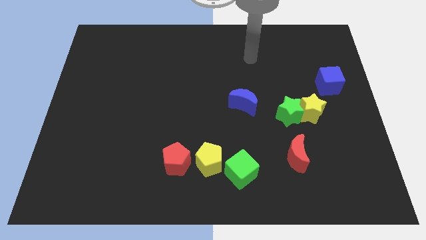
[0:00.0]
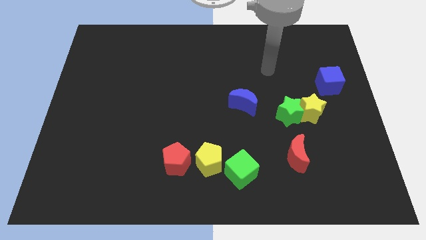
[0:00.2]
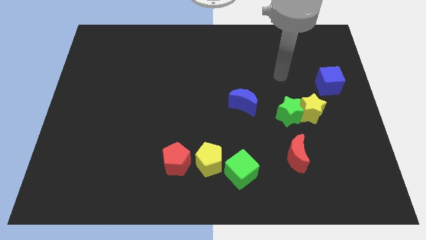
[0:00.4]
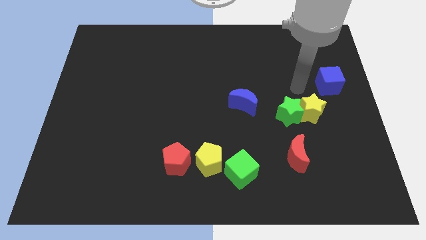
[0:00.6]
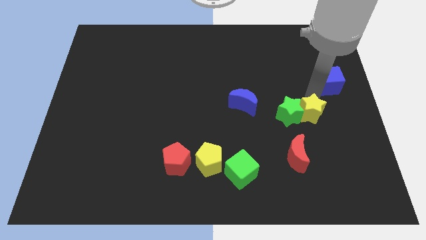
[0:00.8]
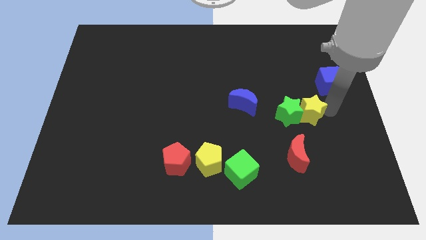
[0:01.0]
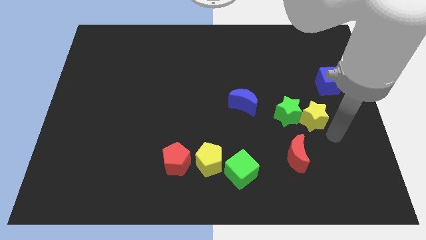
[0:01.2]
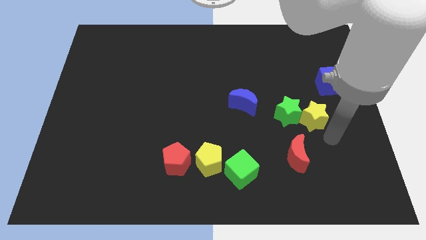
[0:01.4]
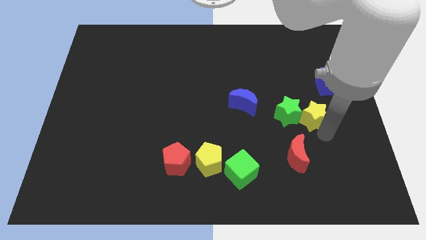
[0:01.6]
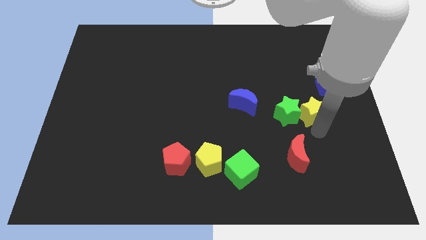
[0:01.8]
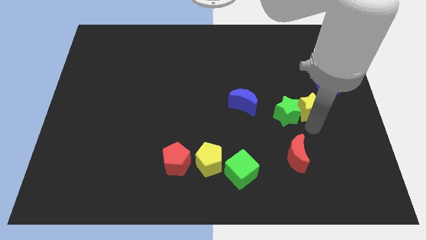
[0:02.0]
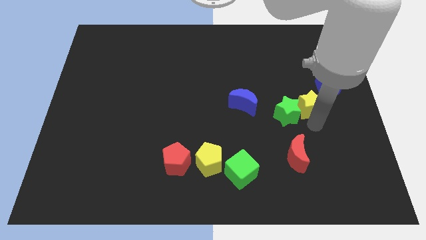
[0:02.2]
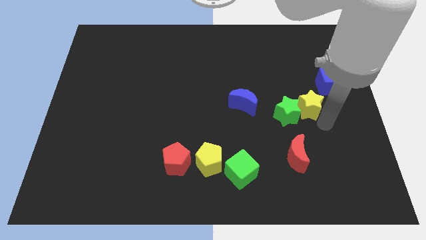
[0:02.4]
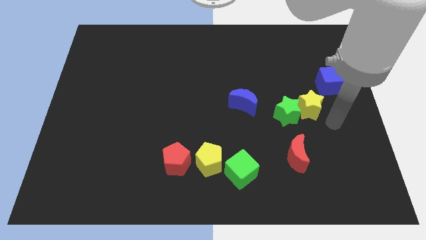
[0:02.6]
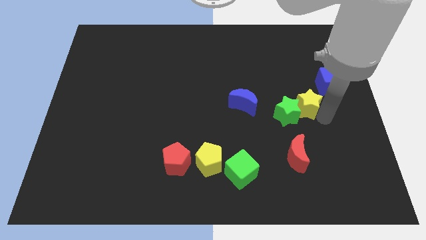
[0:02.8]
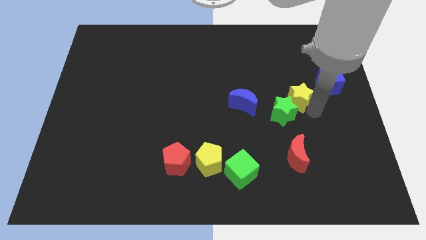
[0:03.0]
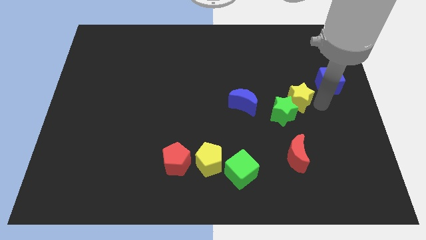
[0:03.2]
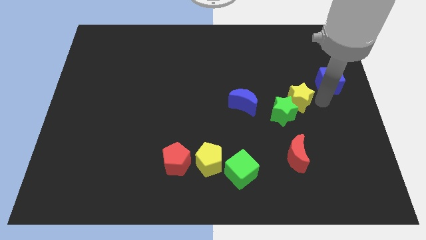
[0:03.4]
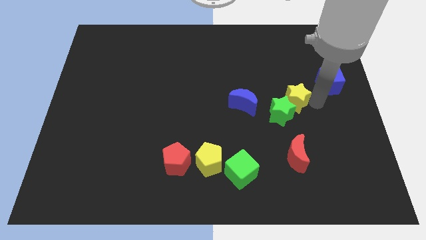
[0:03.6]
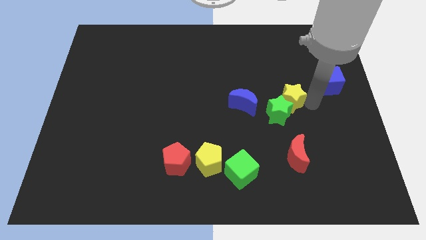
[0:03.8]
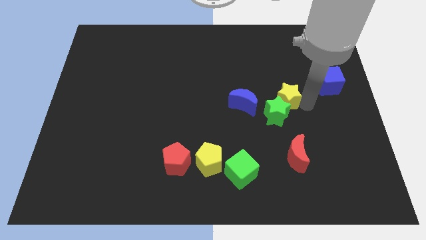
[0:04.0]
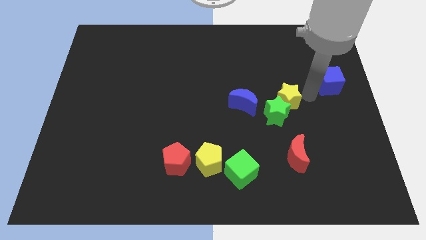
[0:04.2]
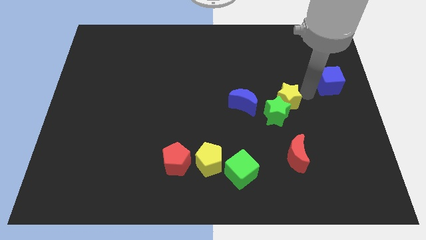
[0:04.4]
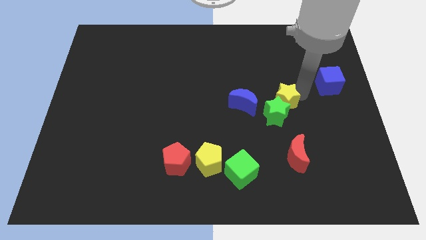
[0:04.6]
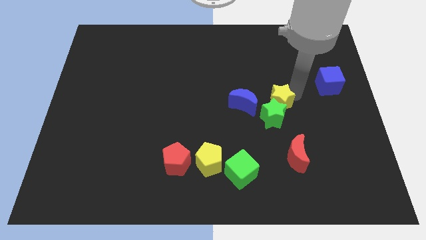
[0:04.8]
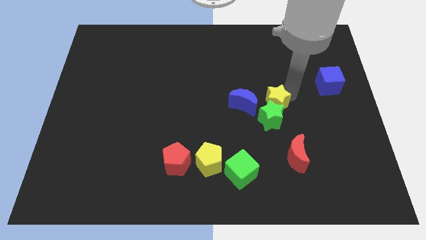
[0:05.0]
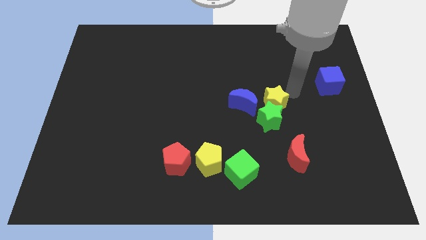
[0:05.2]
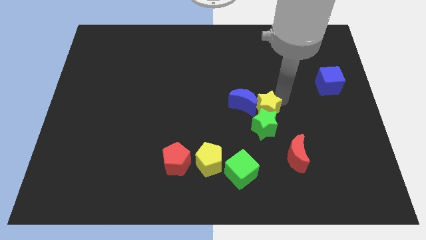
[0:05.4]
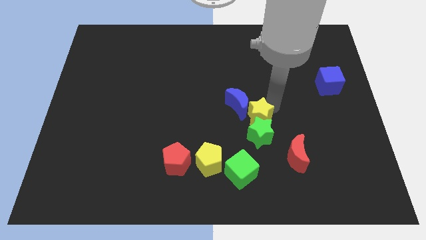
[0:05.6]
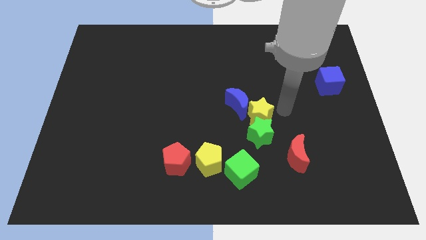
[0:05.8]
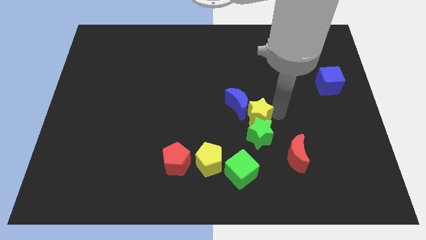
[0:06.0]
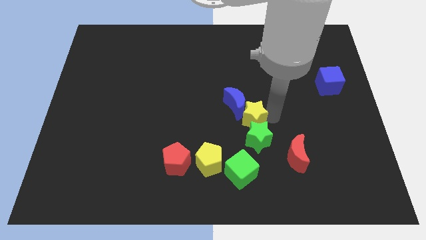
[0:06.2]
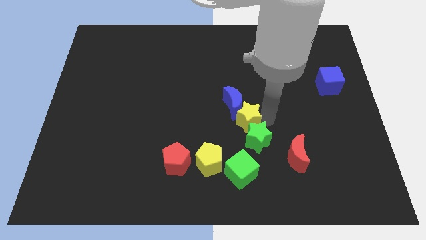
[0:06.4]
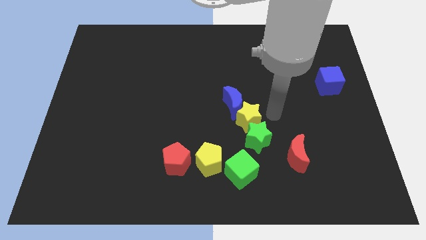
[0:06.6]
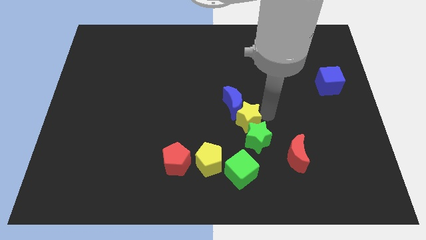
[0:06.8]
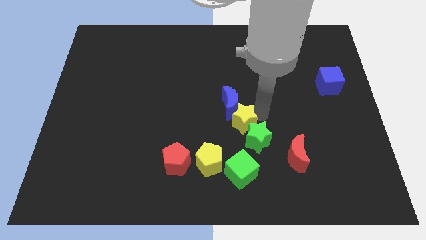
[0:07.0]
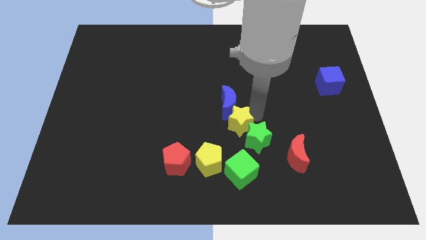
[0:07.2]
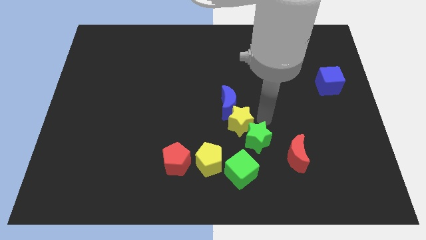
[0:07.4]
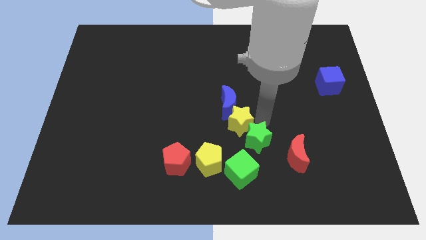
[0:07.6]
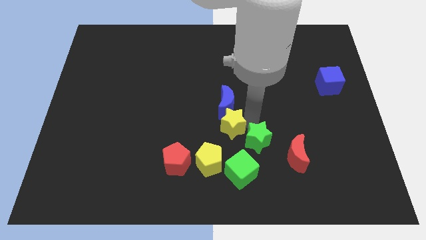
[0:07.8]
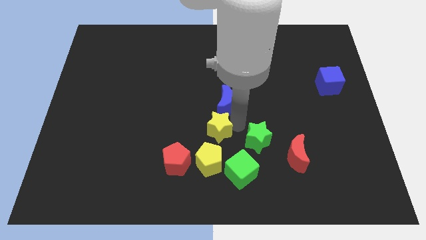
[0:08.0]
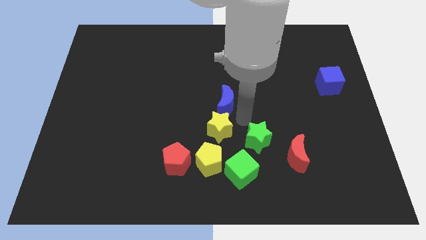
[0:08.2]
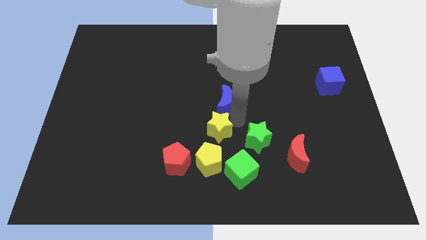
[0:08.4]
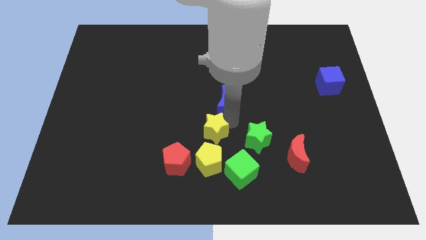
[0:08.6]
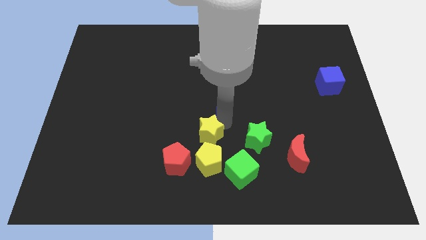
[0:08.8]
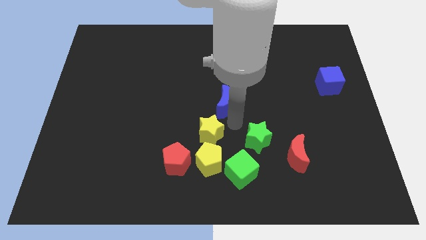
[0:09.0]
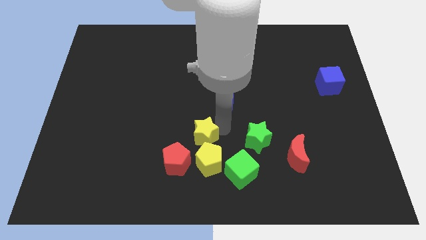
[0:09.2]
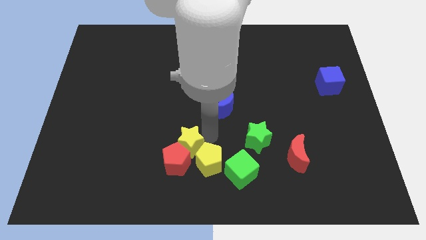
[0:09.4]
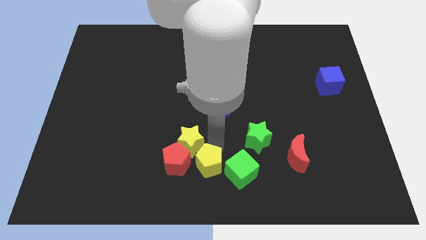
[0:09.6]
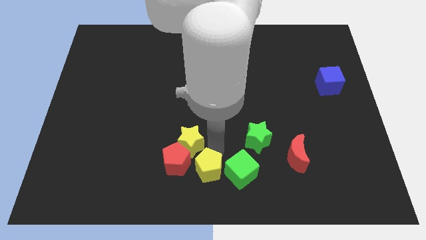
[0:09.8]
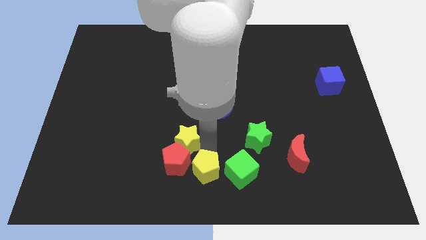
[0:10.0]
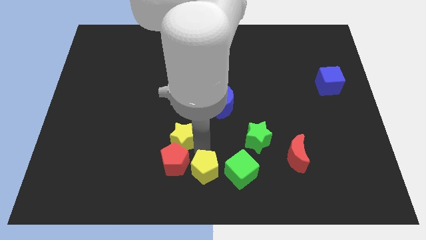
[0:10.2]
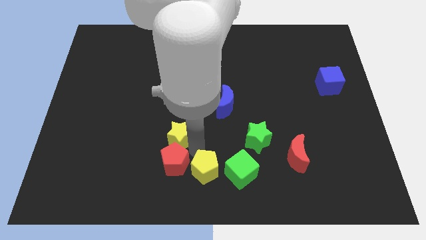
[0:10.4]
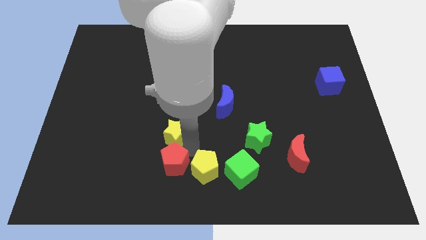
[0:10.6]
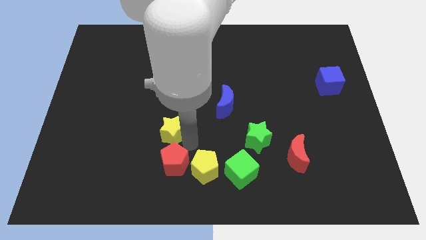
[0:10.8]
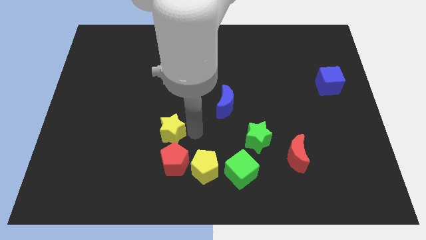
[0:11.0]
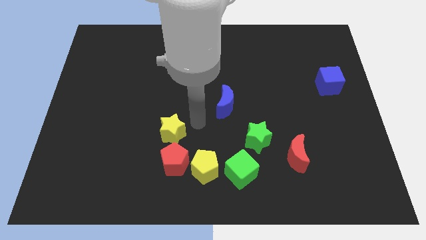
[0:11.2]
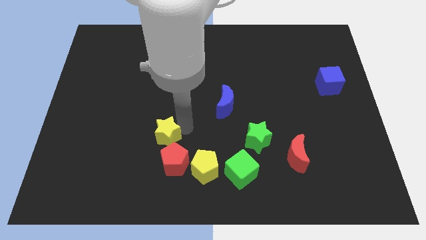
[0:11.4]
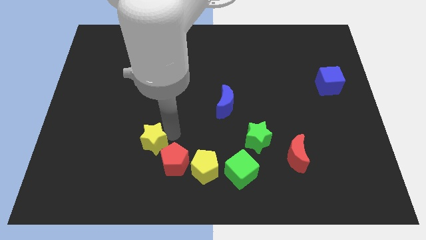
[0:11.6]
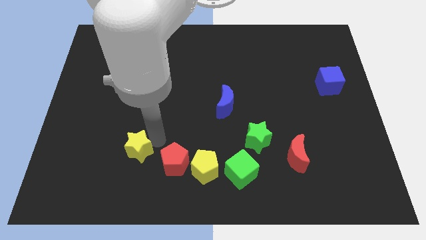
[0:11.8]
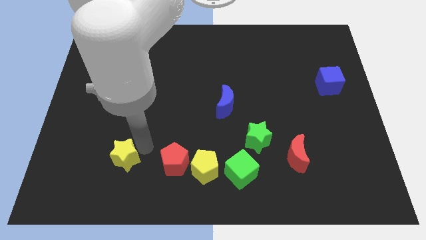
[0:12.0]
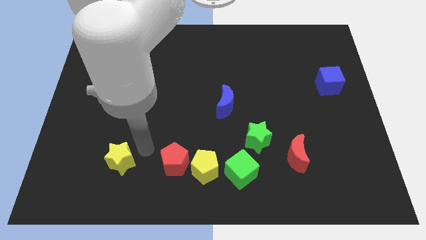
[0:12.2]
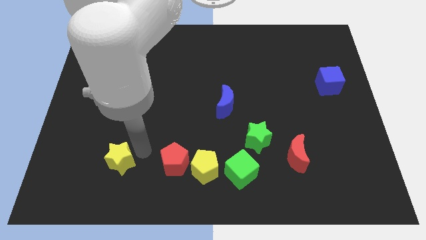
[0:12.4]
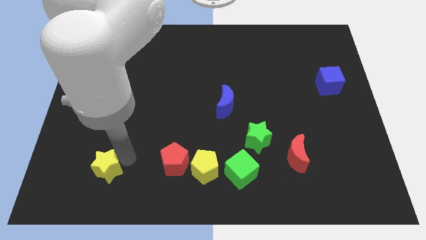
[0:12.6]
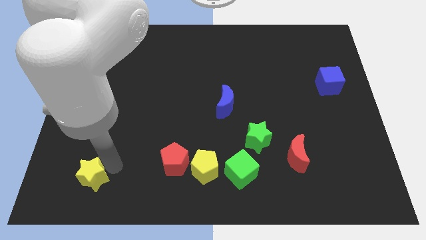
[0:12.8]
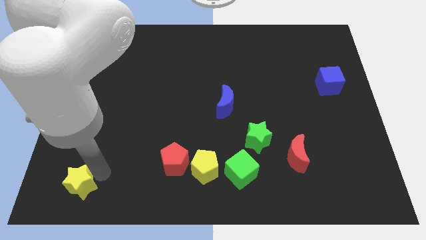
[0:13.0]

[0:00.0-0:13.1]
move the yellow star to the lower left corner

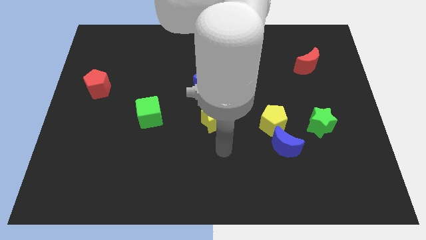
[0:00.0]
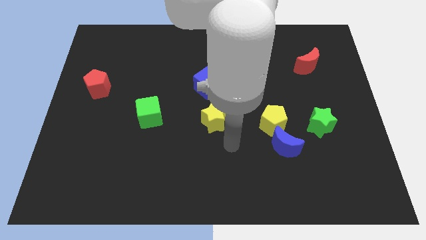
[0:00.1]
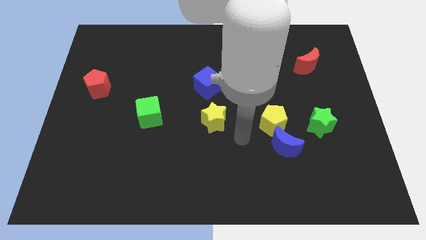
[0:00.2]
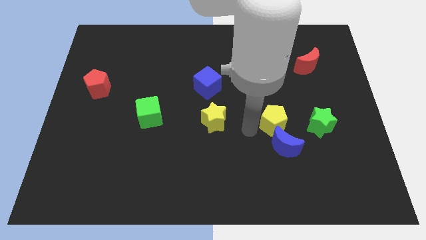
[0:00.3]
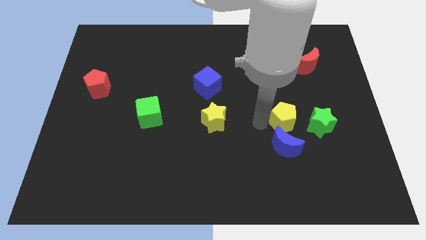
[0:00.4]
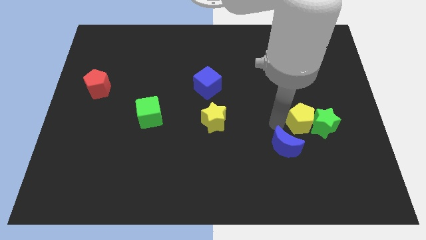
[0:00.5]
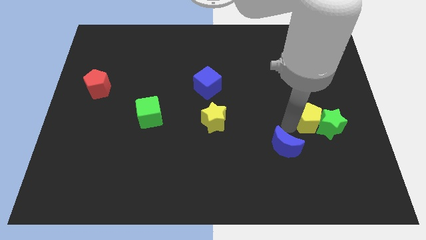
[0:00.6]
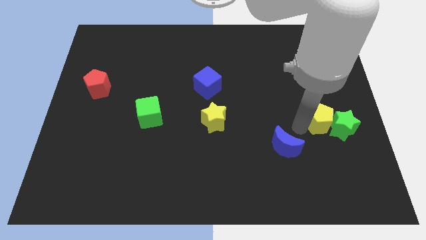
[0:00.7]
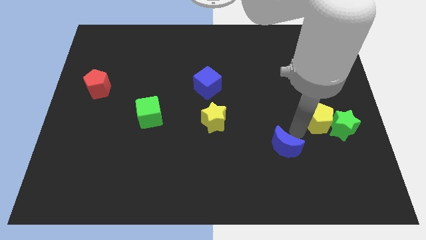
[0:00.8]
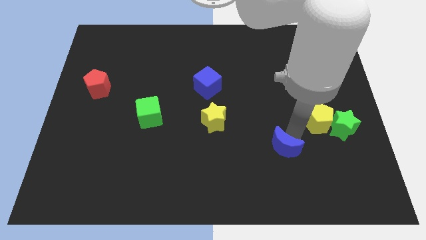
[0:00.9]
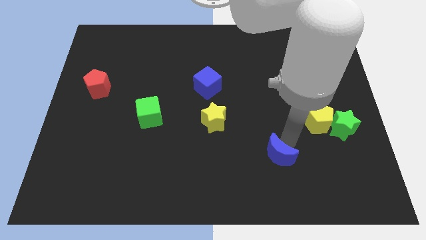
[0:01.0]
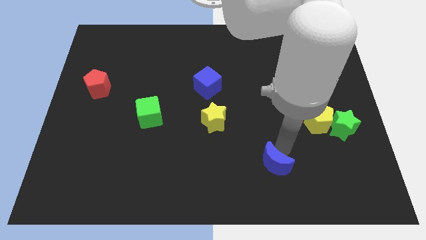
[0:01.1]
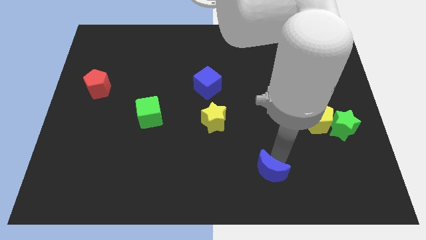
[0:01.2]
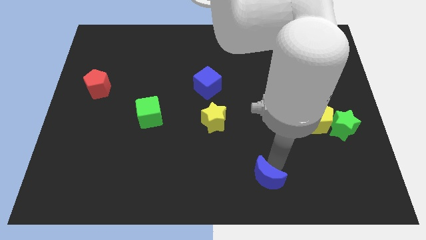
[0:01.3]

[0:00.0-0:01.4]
put the blue moon to the bottom
